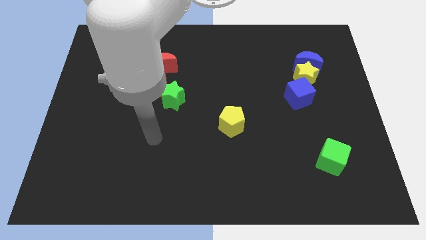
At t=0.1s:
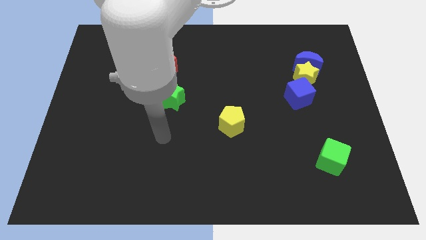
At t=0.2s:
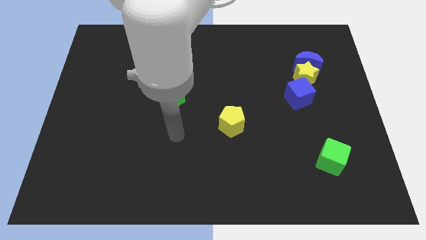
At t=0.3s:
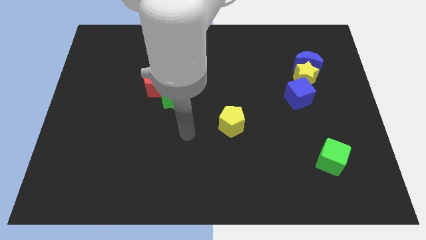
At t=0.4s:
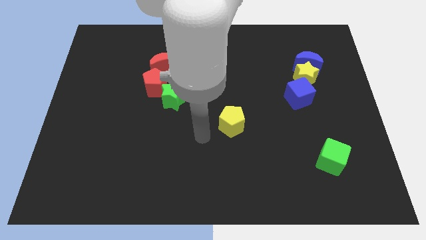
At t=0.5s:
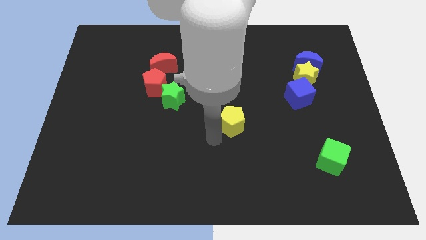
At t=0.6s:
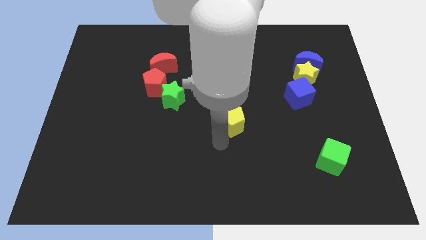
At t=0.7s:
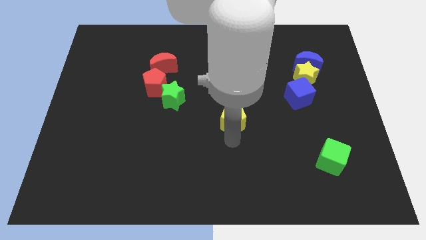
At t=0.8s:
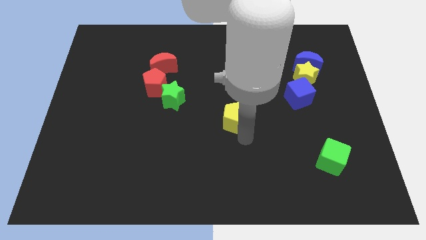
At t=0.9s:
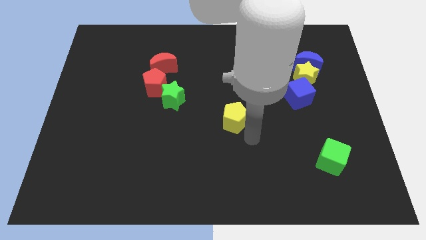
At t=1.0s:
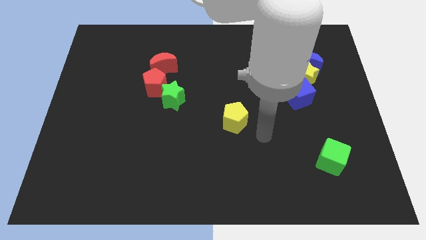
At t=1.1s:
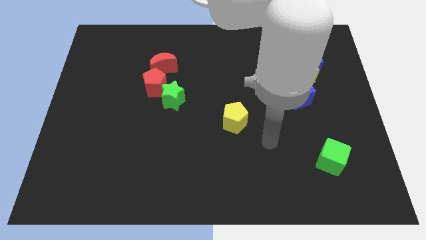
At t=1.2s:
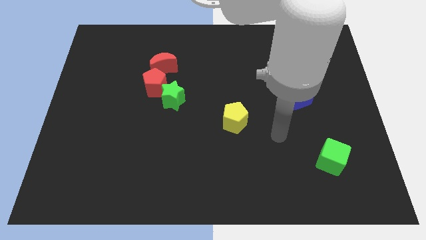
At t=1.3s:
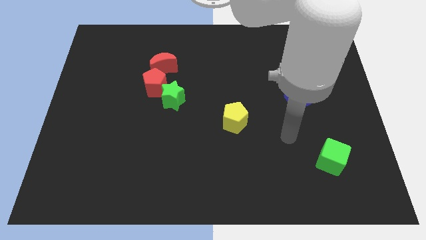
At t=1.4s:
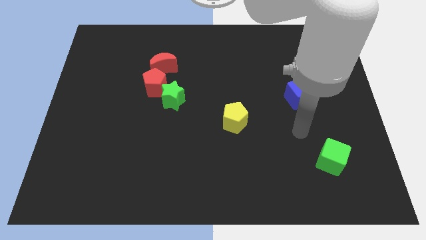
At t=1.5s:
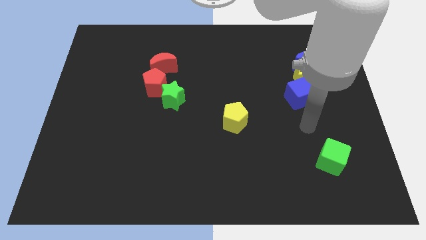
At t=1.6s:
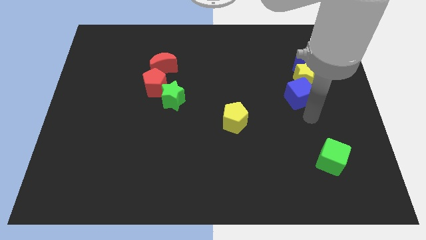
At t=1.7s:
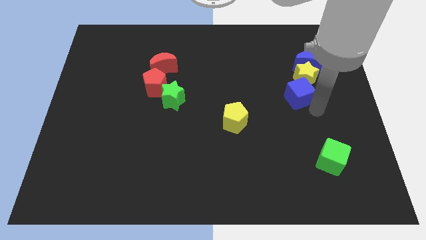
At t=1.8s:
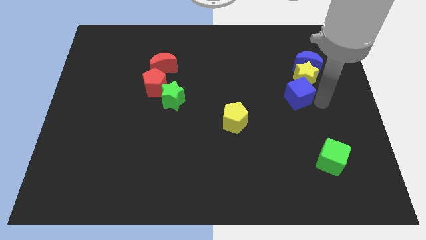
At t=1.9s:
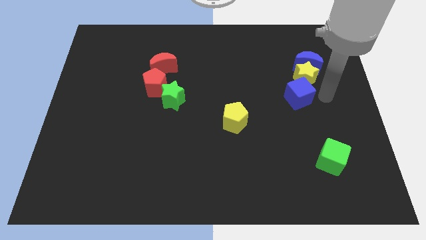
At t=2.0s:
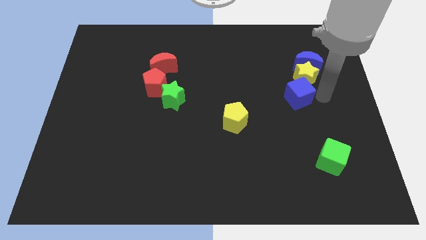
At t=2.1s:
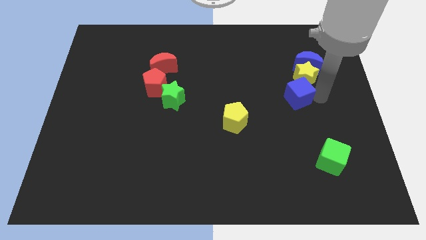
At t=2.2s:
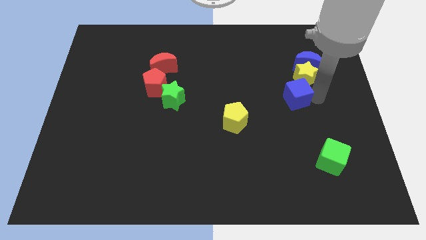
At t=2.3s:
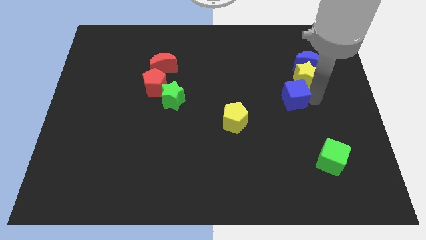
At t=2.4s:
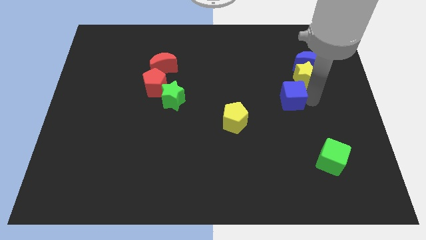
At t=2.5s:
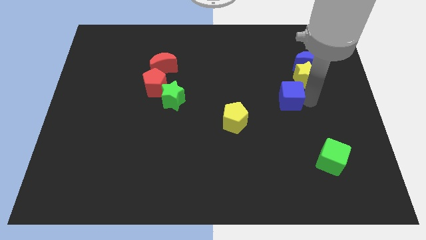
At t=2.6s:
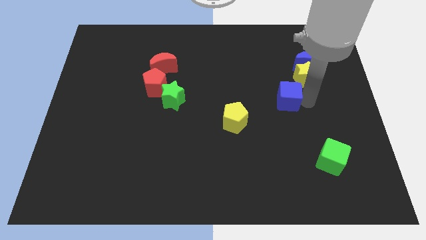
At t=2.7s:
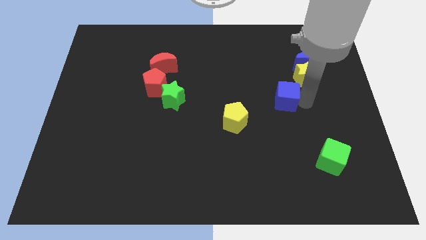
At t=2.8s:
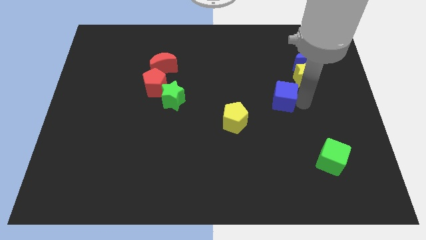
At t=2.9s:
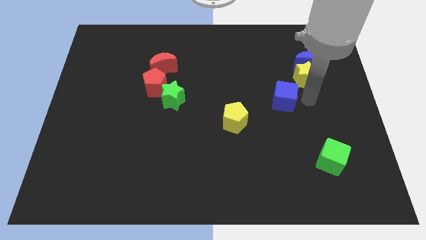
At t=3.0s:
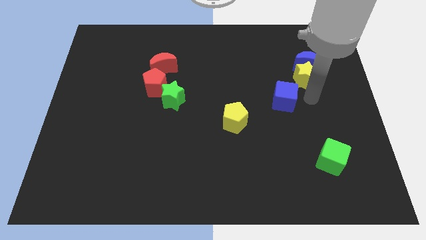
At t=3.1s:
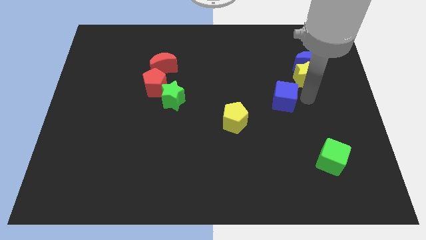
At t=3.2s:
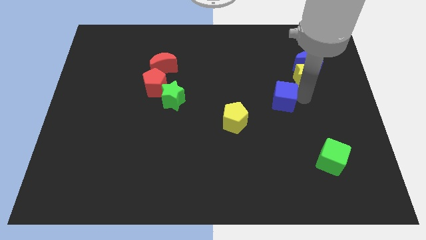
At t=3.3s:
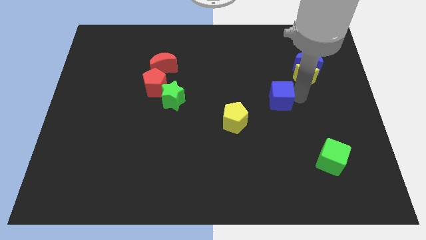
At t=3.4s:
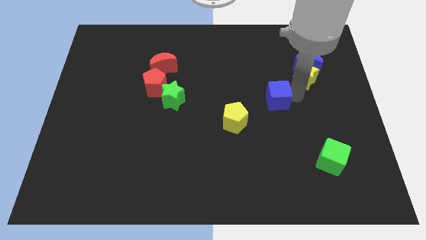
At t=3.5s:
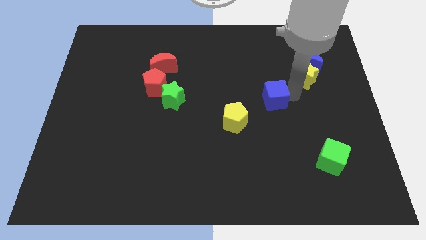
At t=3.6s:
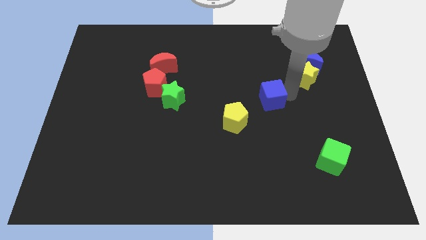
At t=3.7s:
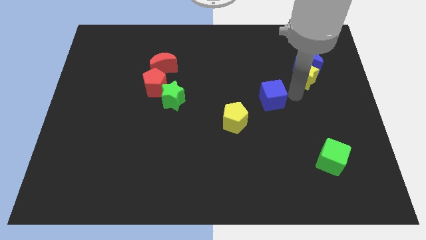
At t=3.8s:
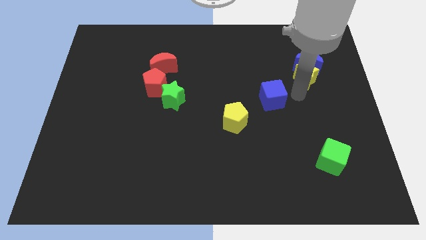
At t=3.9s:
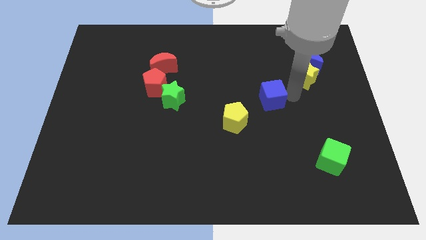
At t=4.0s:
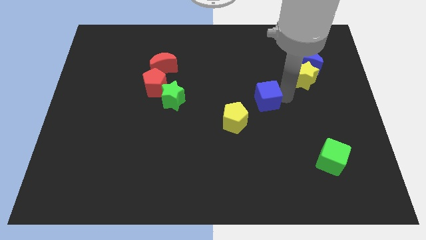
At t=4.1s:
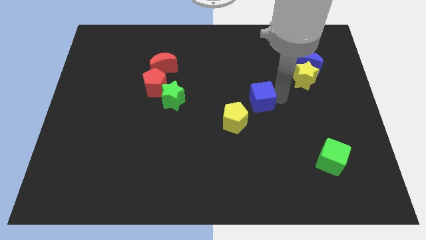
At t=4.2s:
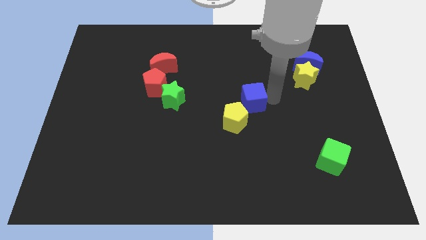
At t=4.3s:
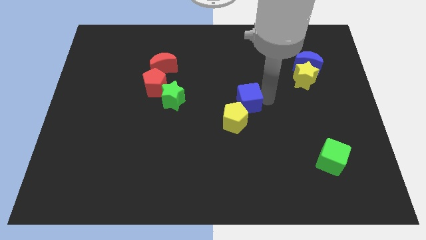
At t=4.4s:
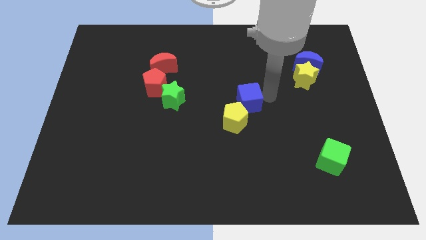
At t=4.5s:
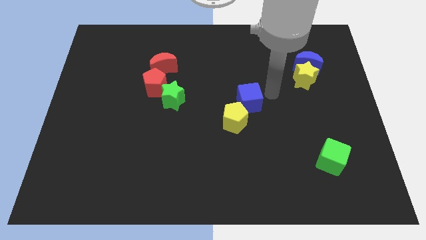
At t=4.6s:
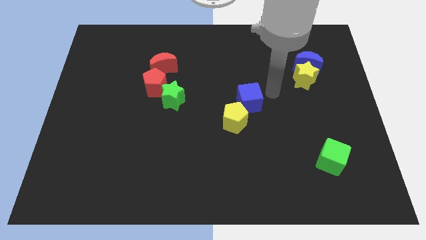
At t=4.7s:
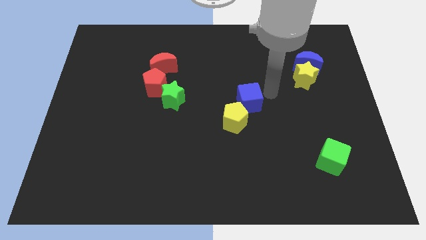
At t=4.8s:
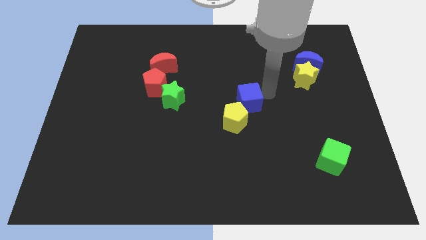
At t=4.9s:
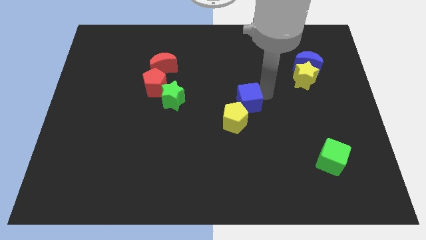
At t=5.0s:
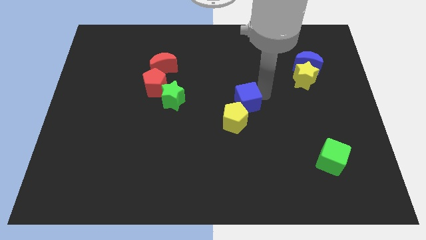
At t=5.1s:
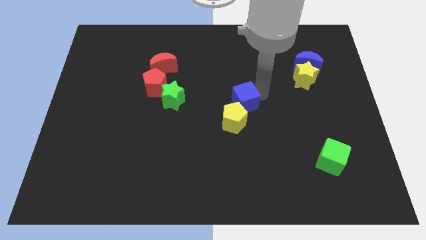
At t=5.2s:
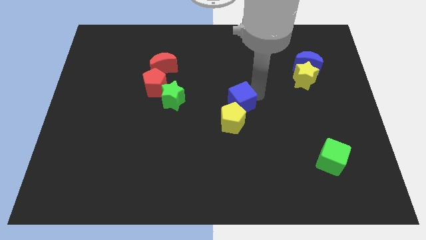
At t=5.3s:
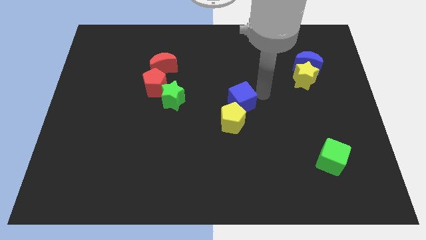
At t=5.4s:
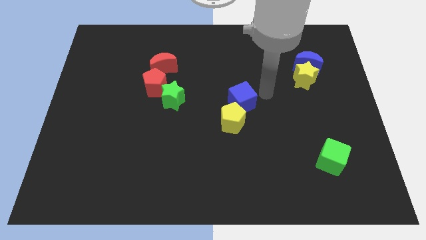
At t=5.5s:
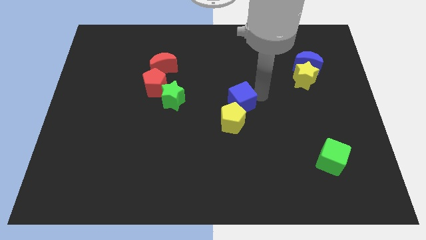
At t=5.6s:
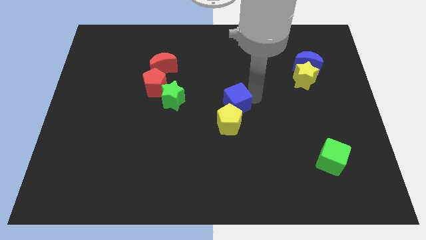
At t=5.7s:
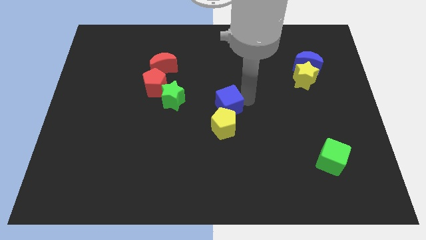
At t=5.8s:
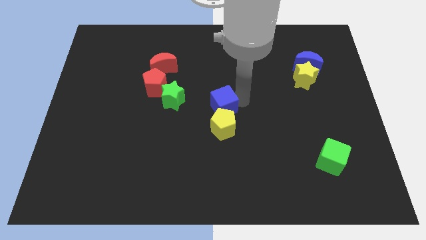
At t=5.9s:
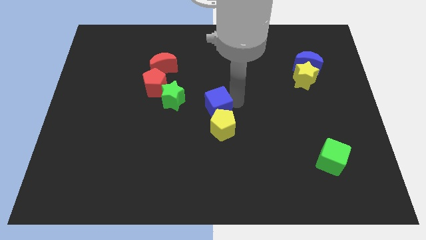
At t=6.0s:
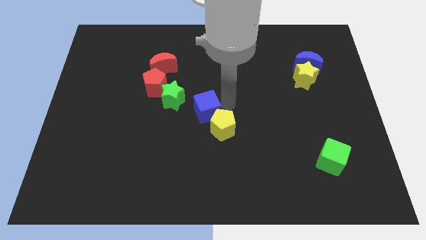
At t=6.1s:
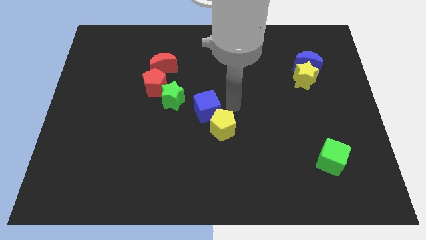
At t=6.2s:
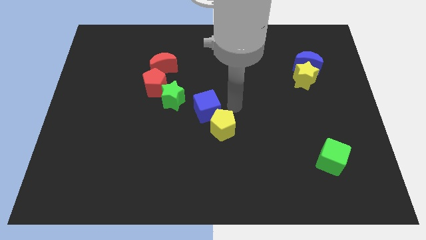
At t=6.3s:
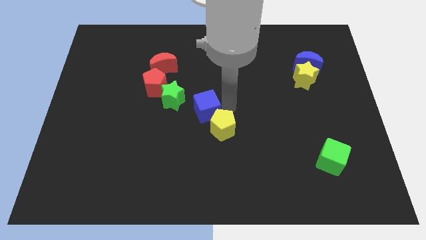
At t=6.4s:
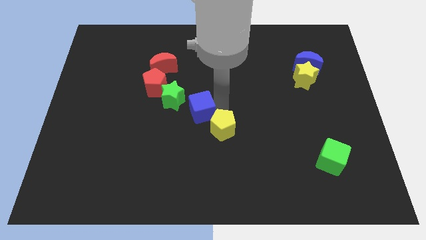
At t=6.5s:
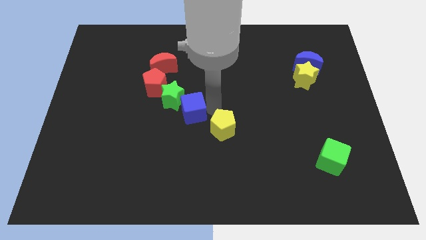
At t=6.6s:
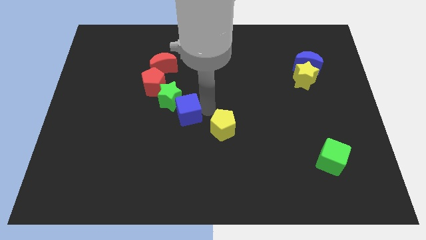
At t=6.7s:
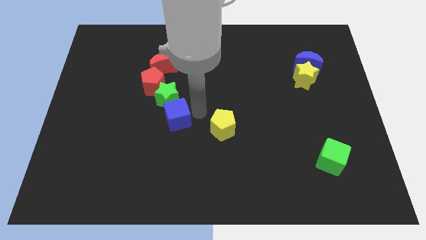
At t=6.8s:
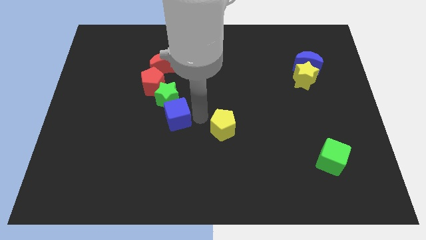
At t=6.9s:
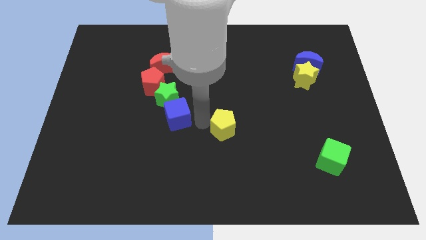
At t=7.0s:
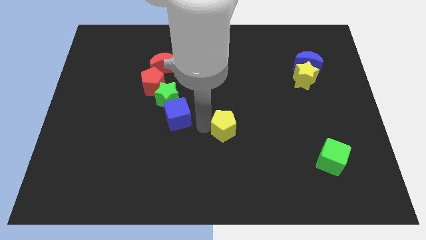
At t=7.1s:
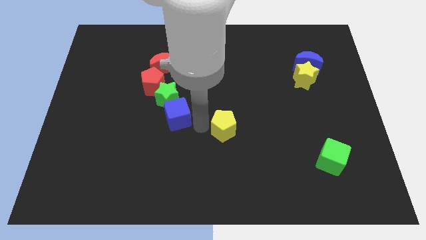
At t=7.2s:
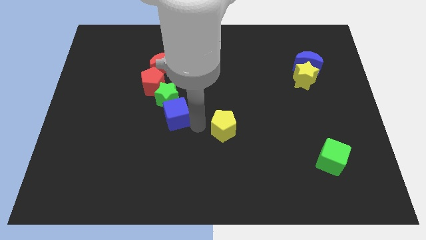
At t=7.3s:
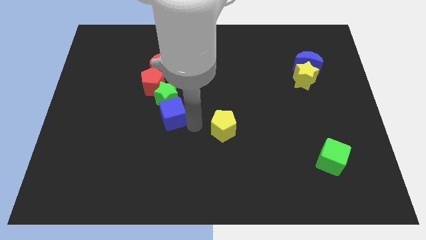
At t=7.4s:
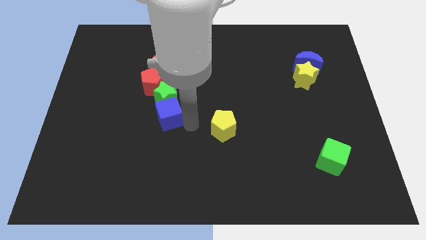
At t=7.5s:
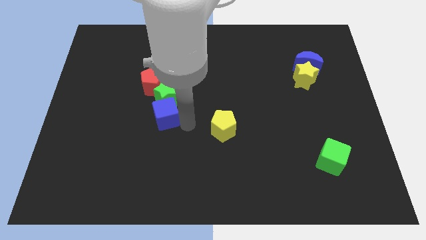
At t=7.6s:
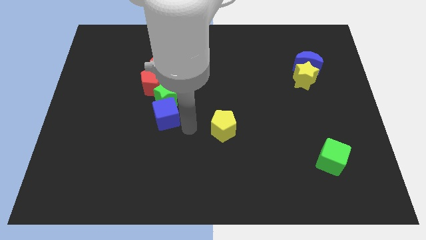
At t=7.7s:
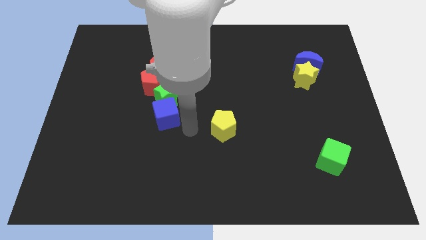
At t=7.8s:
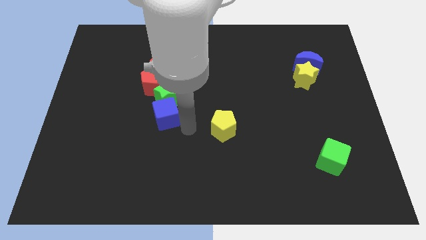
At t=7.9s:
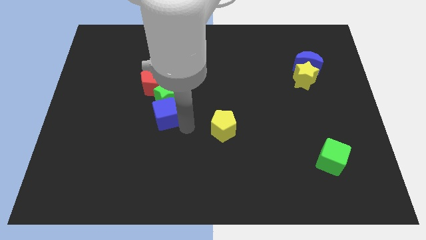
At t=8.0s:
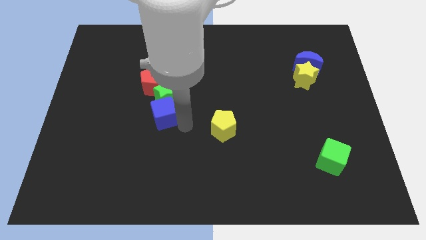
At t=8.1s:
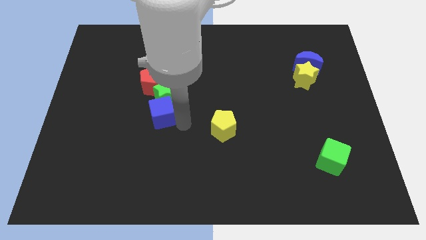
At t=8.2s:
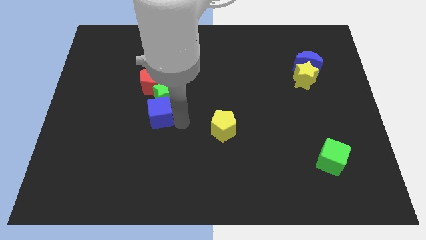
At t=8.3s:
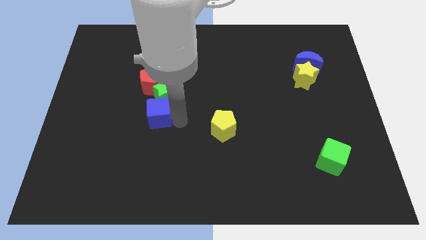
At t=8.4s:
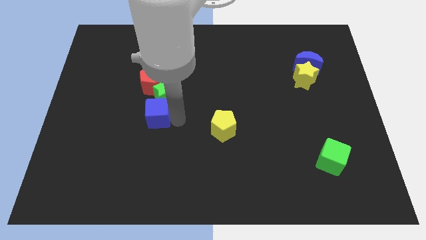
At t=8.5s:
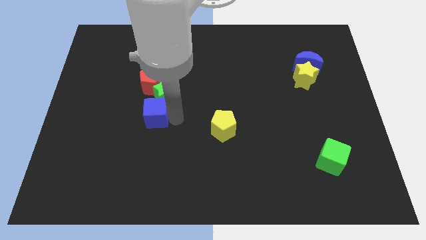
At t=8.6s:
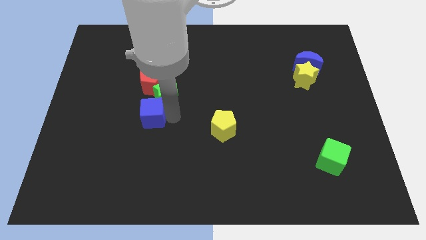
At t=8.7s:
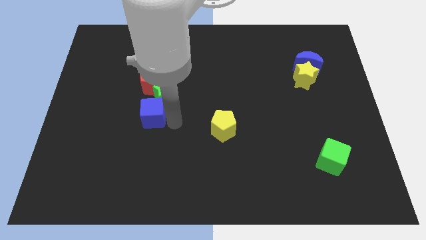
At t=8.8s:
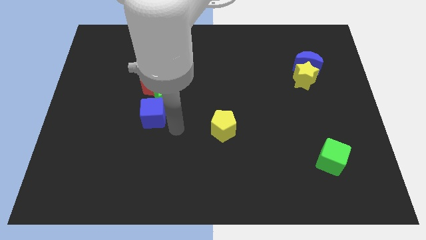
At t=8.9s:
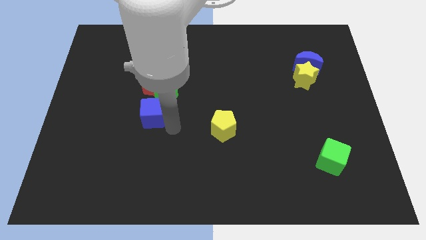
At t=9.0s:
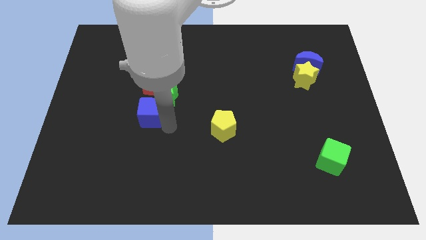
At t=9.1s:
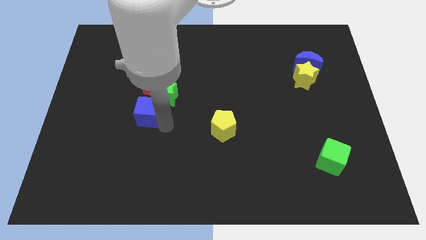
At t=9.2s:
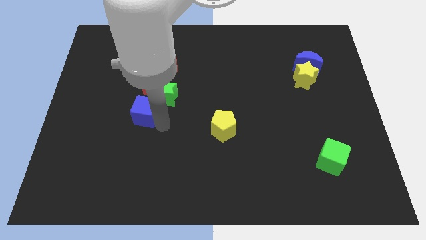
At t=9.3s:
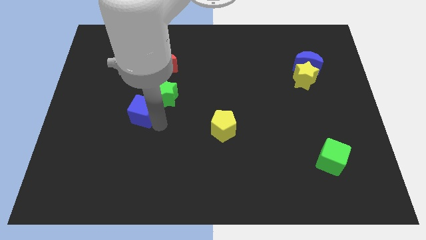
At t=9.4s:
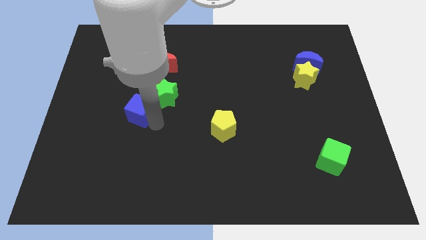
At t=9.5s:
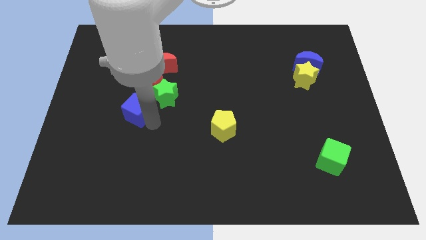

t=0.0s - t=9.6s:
put the blue cube to the bottom left of the red pentagon
